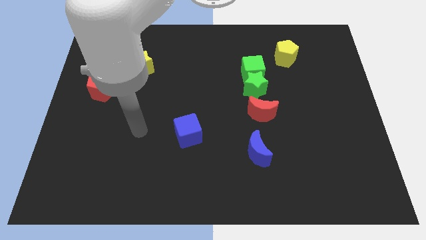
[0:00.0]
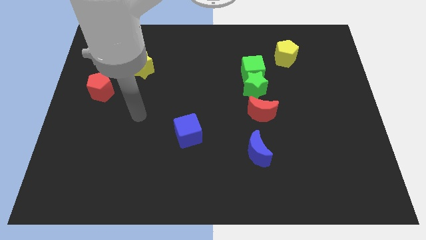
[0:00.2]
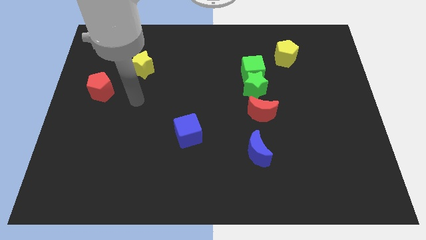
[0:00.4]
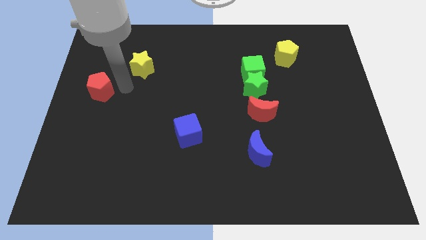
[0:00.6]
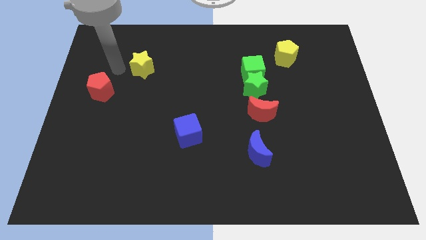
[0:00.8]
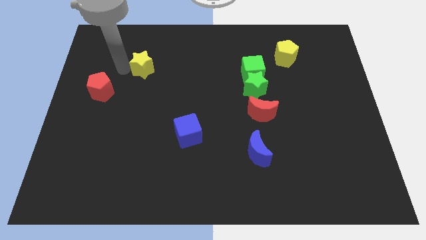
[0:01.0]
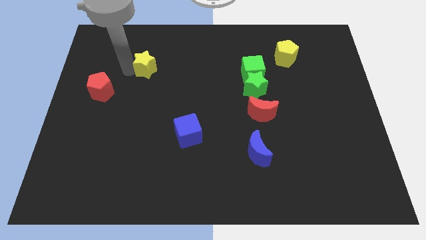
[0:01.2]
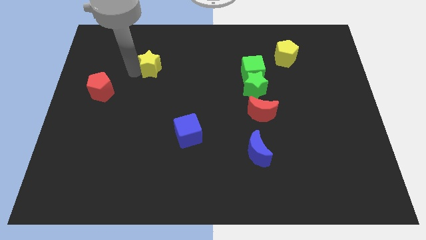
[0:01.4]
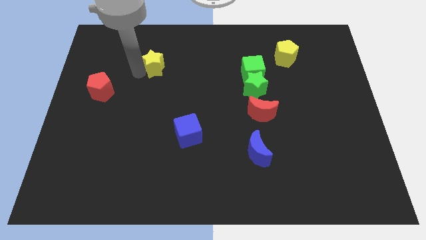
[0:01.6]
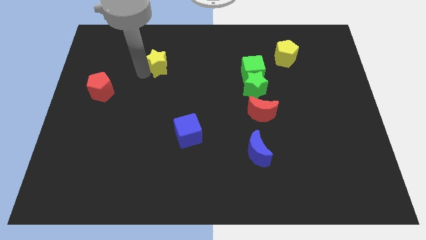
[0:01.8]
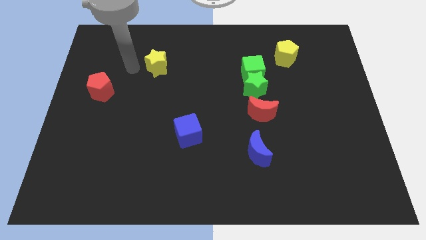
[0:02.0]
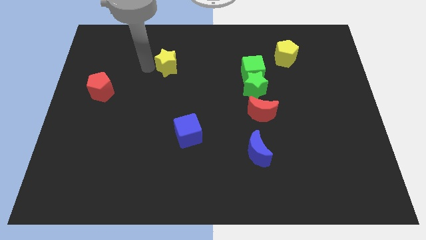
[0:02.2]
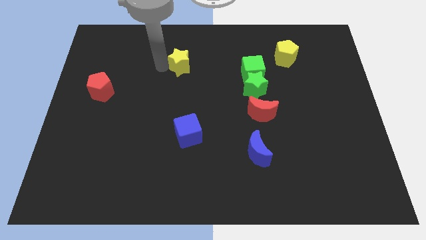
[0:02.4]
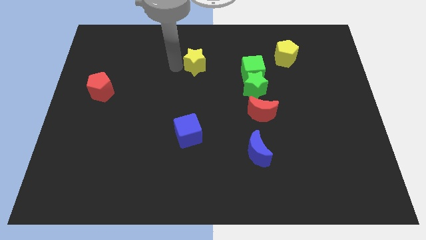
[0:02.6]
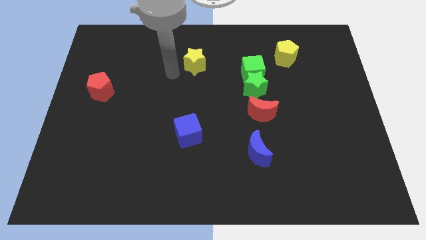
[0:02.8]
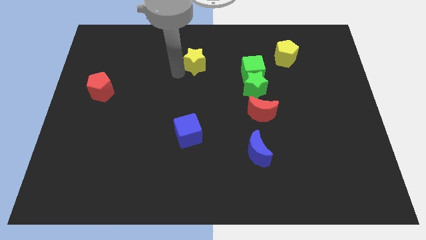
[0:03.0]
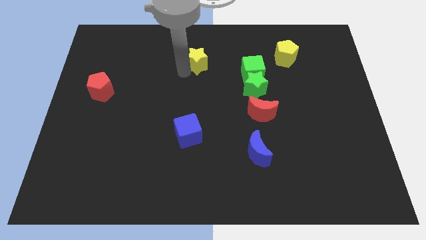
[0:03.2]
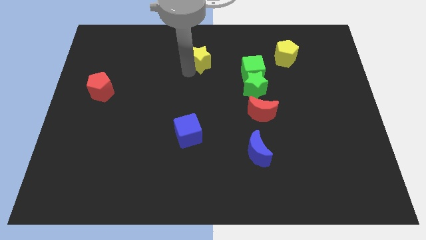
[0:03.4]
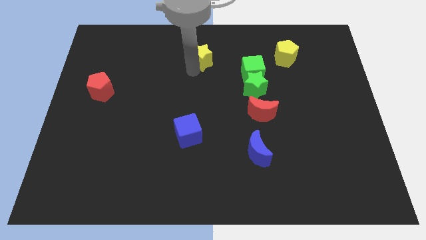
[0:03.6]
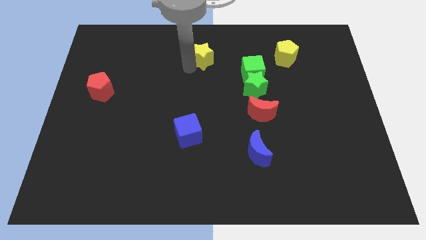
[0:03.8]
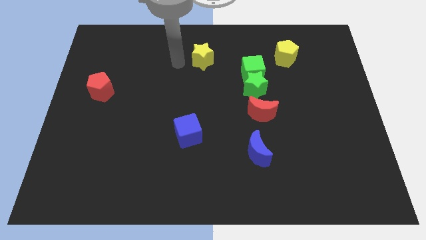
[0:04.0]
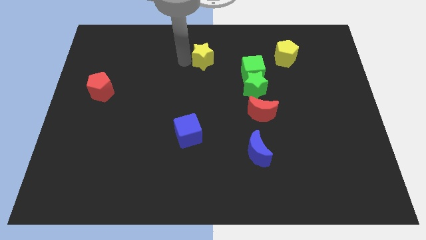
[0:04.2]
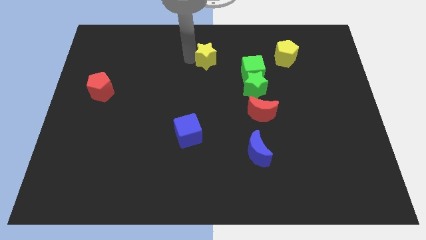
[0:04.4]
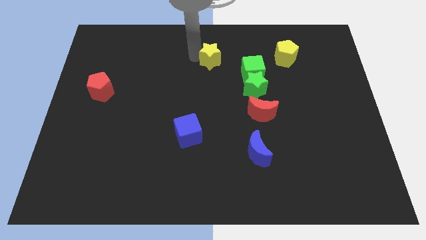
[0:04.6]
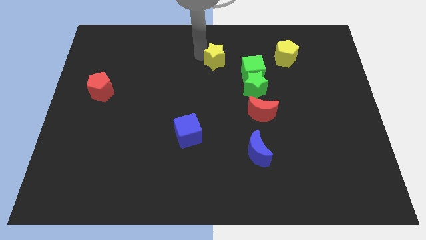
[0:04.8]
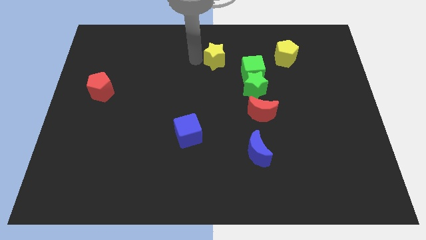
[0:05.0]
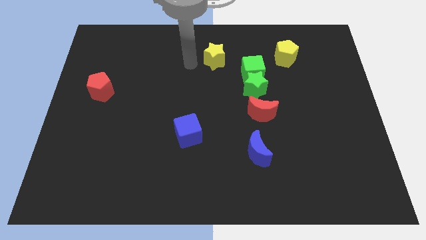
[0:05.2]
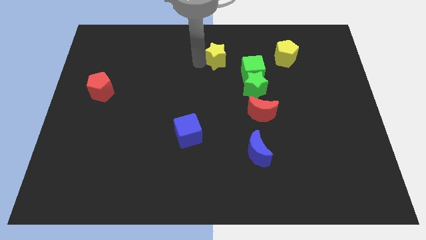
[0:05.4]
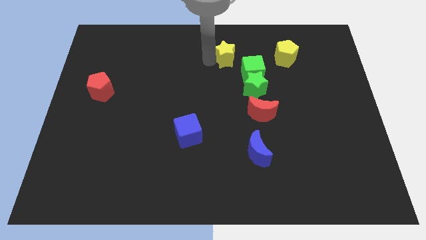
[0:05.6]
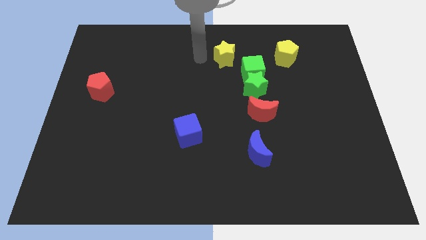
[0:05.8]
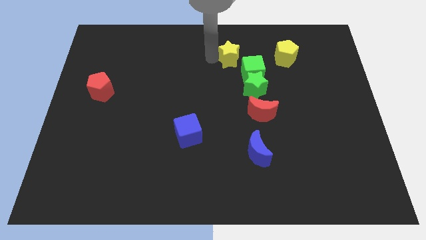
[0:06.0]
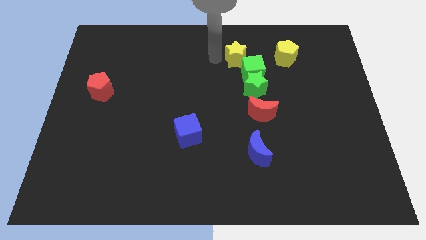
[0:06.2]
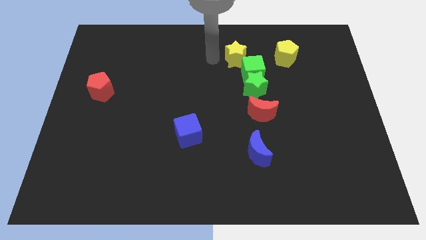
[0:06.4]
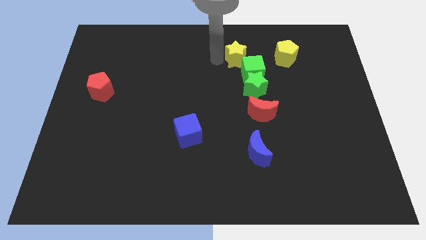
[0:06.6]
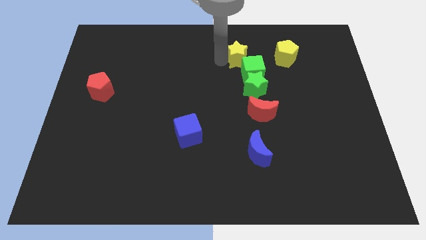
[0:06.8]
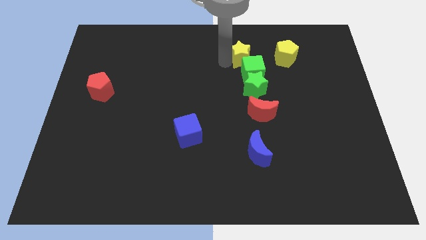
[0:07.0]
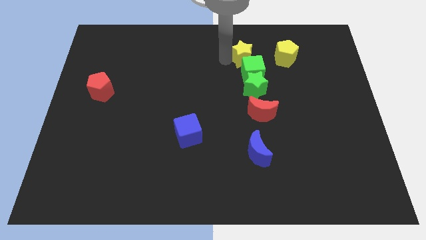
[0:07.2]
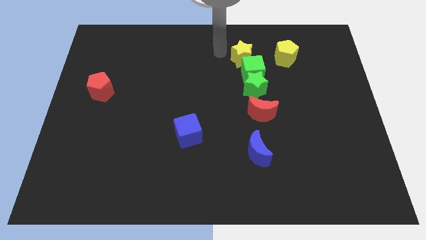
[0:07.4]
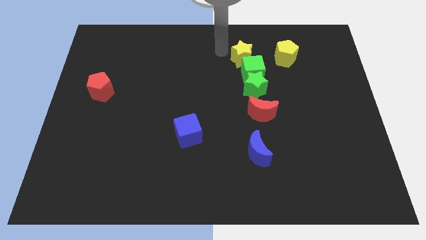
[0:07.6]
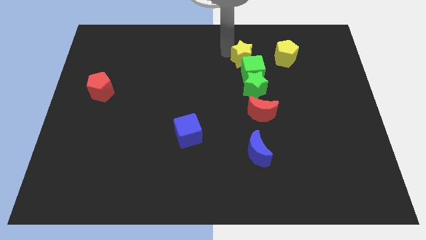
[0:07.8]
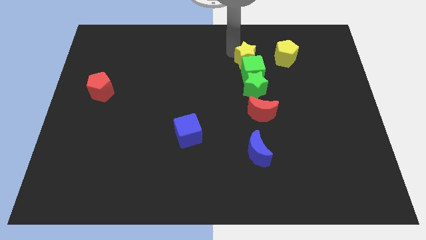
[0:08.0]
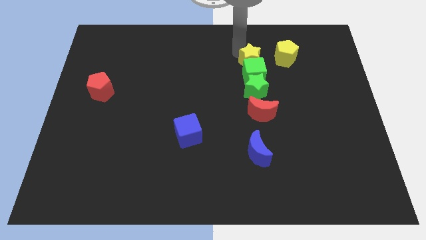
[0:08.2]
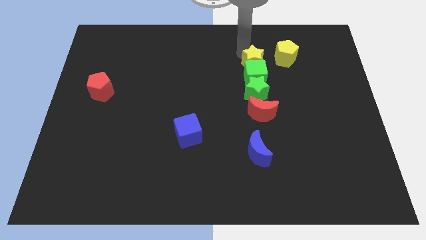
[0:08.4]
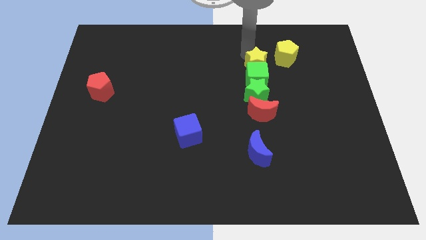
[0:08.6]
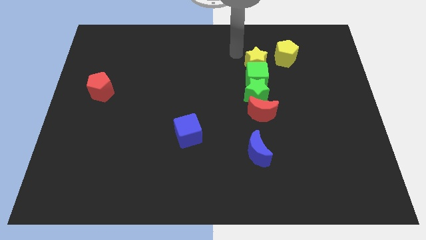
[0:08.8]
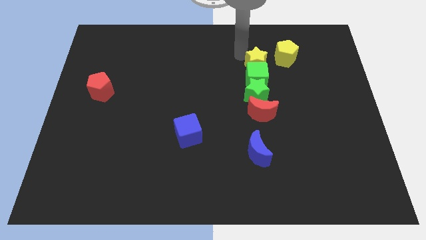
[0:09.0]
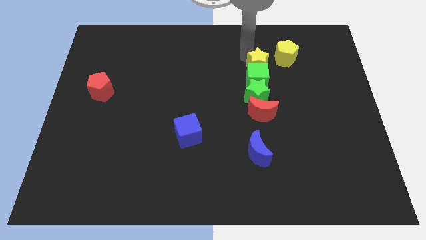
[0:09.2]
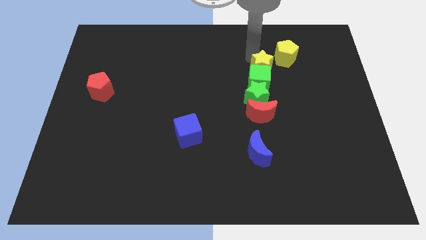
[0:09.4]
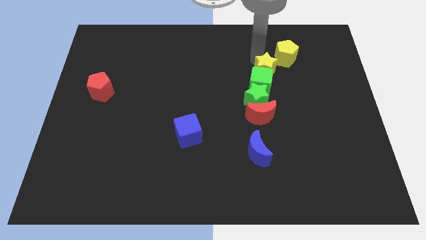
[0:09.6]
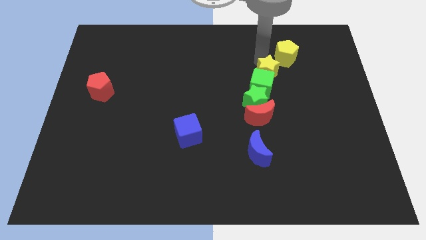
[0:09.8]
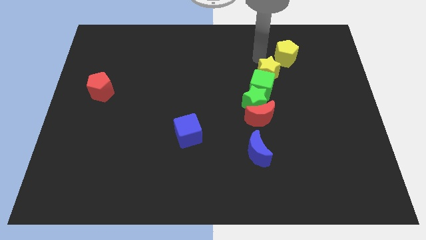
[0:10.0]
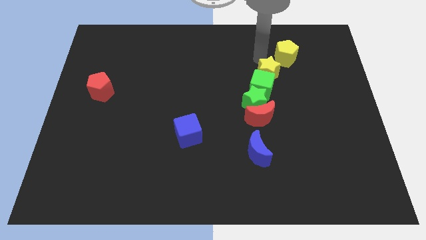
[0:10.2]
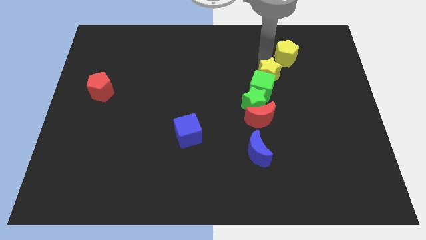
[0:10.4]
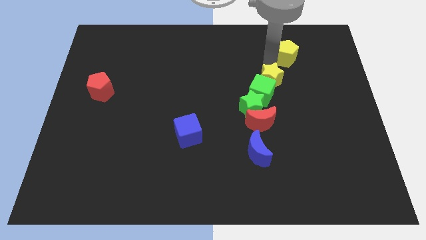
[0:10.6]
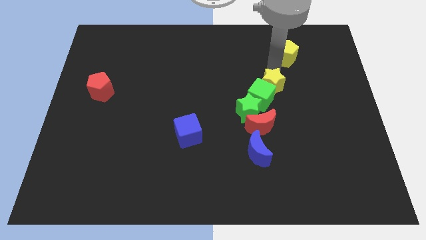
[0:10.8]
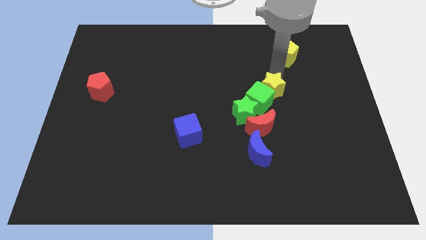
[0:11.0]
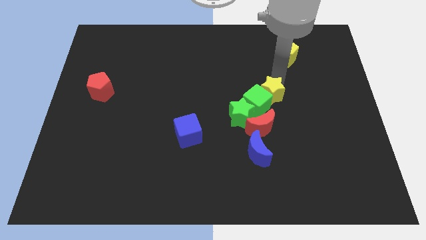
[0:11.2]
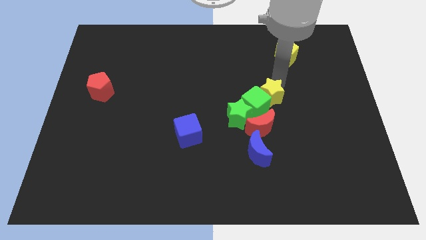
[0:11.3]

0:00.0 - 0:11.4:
move the yellow star to the top right side of the red moon

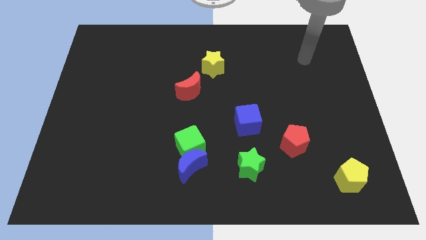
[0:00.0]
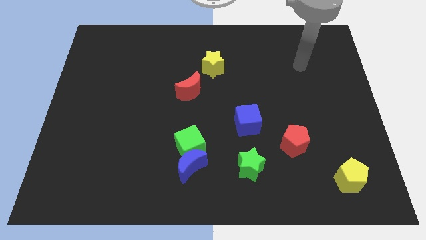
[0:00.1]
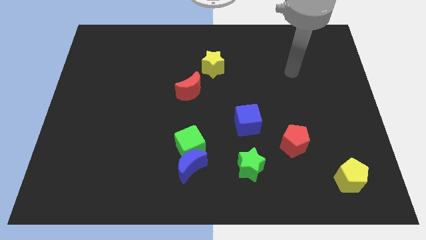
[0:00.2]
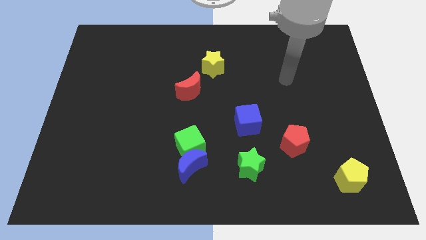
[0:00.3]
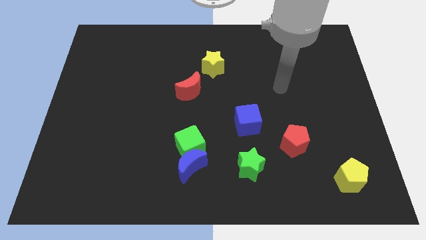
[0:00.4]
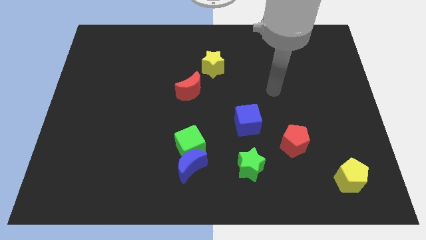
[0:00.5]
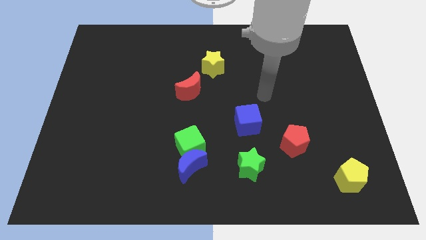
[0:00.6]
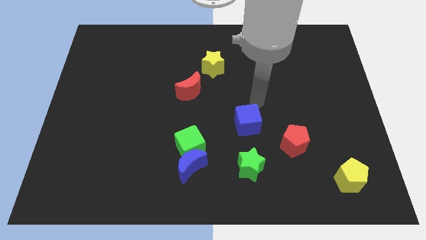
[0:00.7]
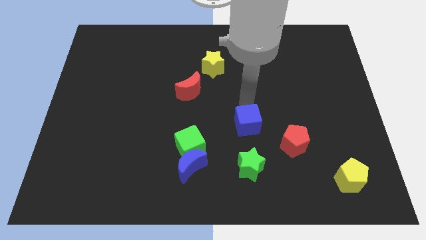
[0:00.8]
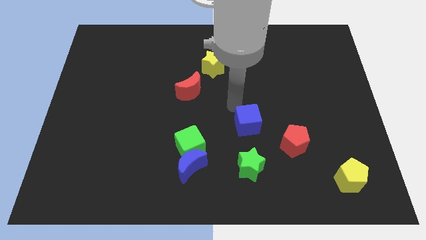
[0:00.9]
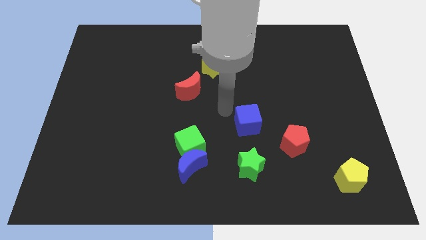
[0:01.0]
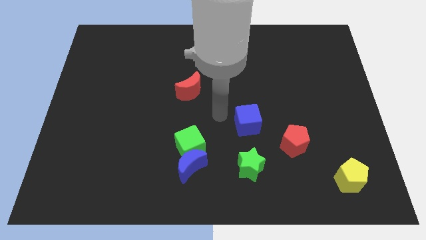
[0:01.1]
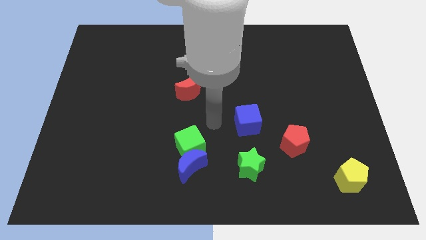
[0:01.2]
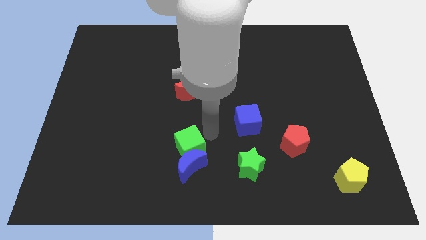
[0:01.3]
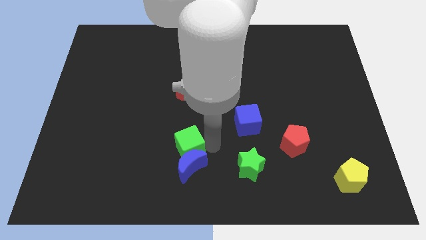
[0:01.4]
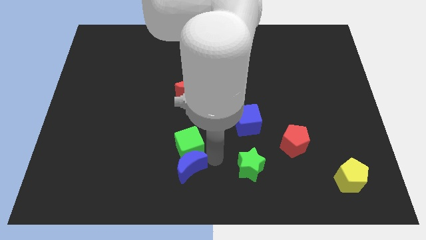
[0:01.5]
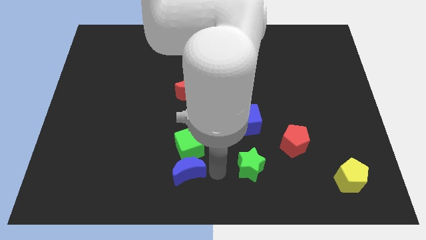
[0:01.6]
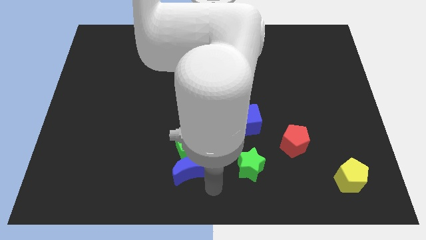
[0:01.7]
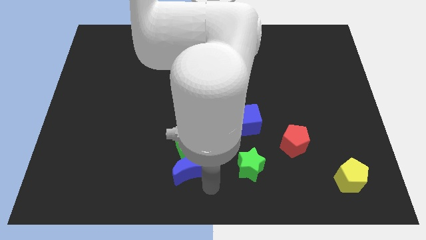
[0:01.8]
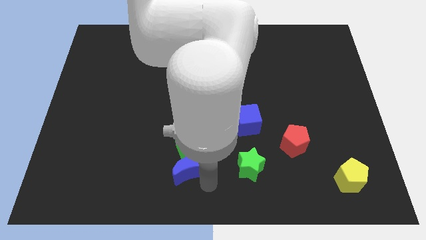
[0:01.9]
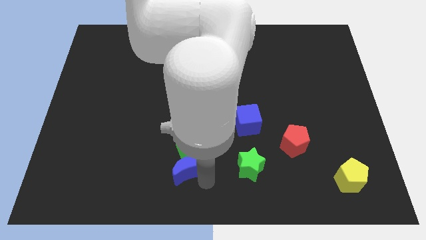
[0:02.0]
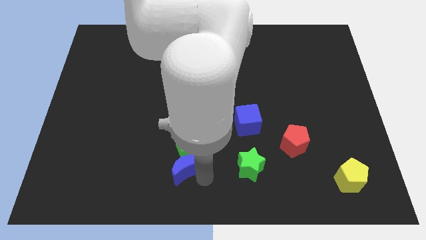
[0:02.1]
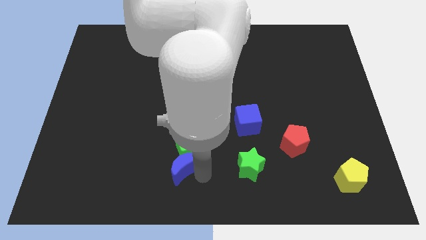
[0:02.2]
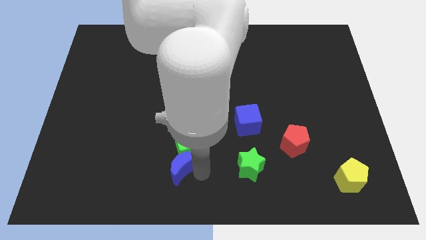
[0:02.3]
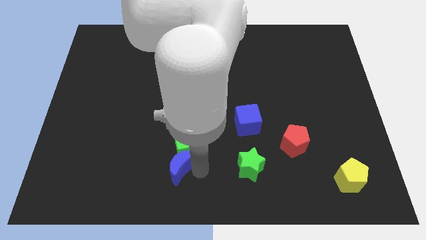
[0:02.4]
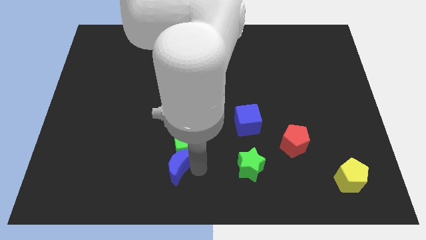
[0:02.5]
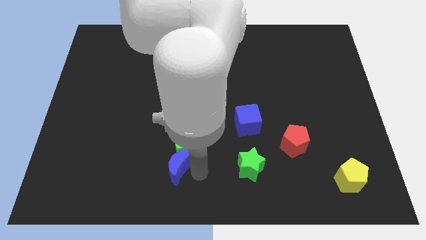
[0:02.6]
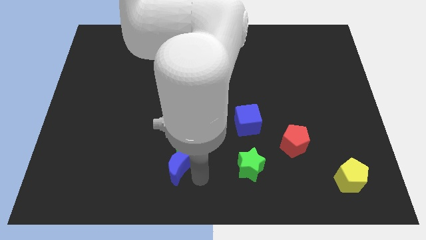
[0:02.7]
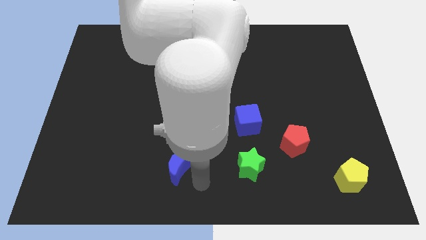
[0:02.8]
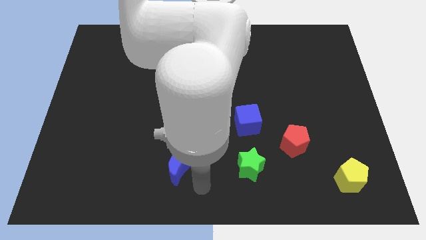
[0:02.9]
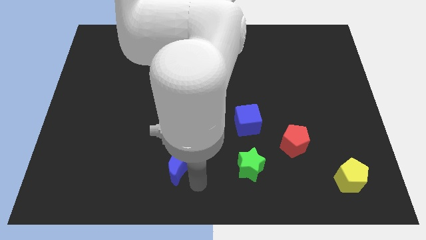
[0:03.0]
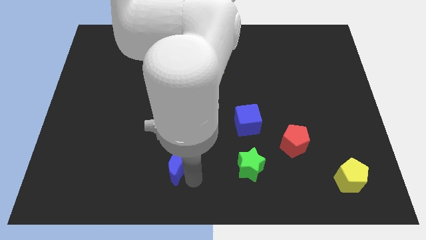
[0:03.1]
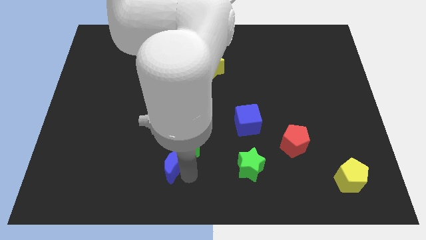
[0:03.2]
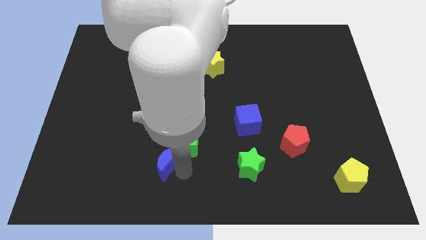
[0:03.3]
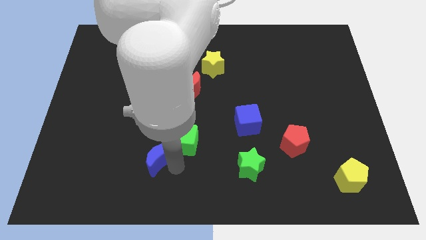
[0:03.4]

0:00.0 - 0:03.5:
put the blue moon to the left of the green cube
